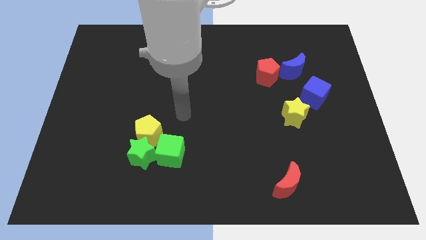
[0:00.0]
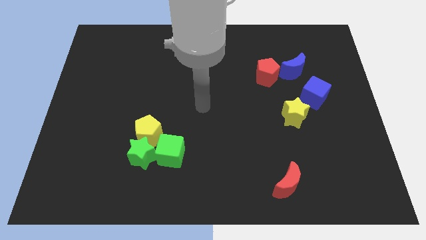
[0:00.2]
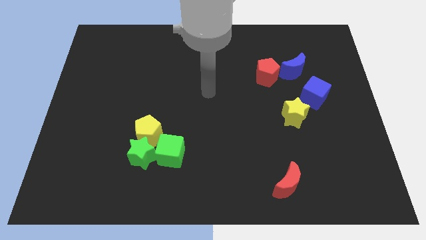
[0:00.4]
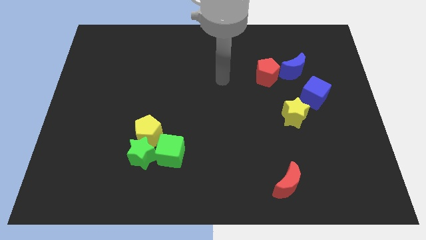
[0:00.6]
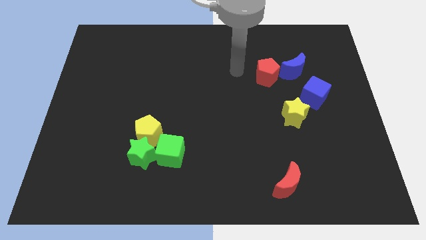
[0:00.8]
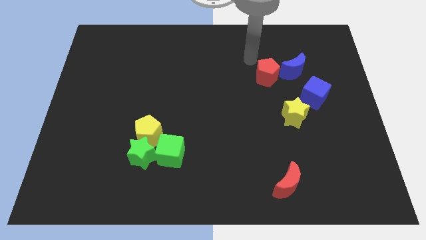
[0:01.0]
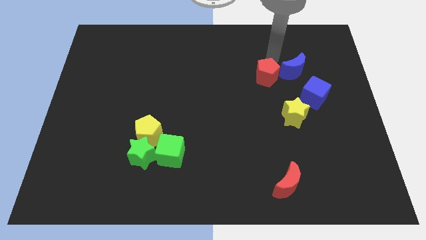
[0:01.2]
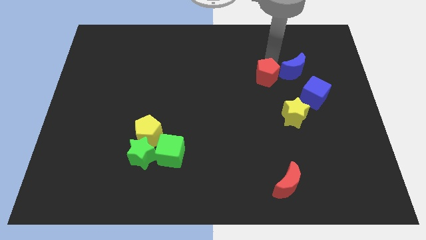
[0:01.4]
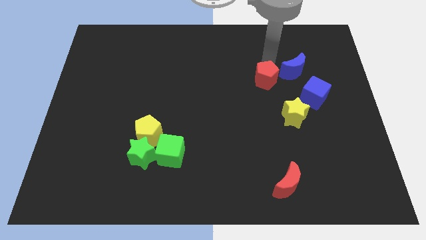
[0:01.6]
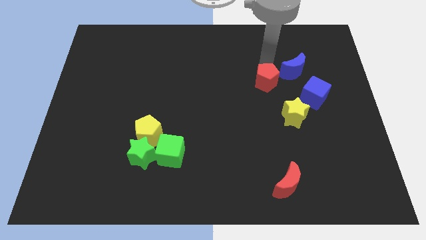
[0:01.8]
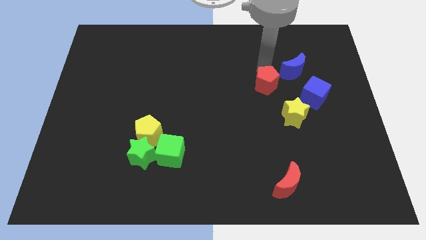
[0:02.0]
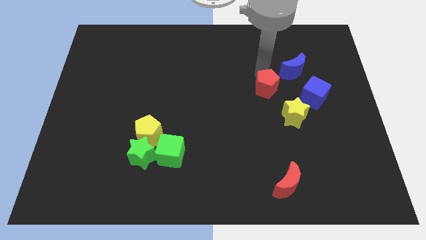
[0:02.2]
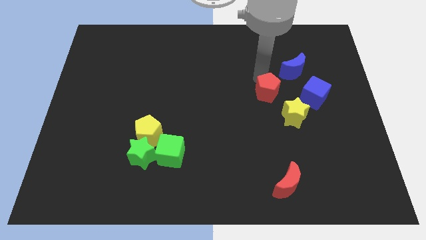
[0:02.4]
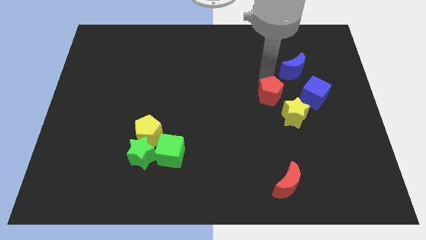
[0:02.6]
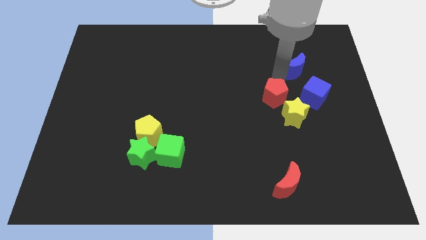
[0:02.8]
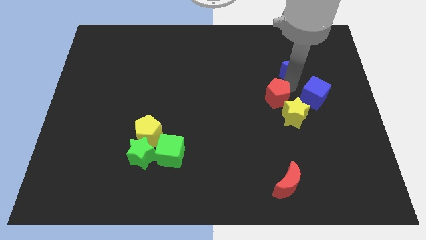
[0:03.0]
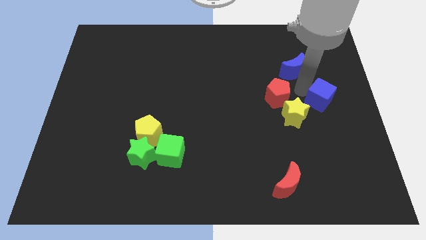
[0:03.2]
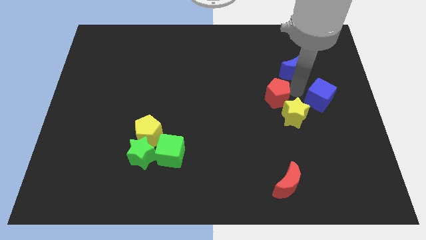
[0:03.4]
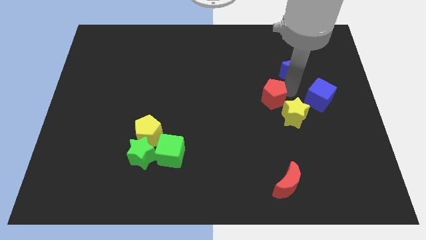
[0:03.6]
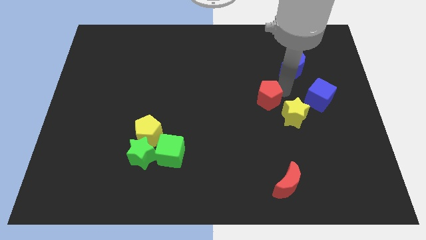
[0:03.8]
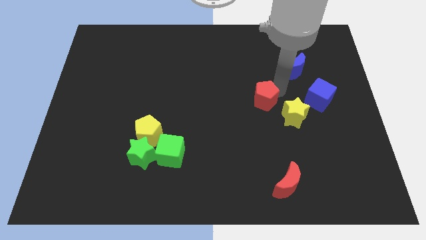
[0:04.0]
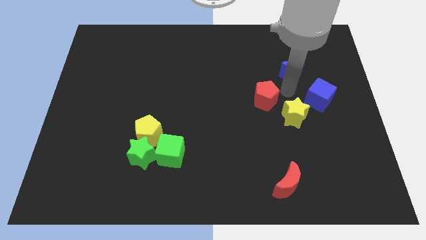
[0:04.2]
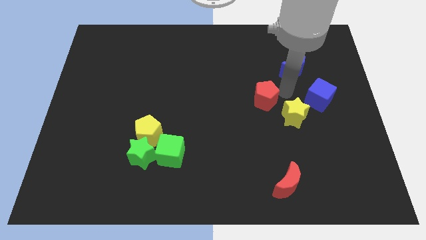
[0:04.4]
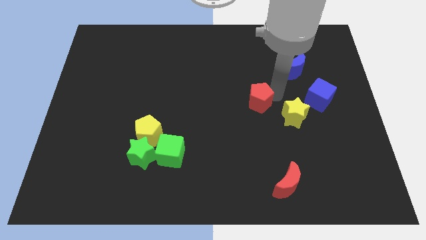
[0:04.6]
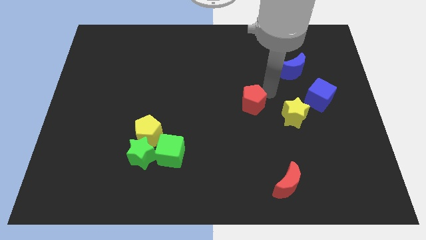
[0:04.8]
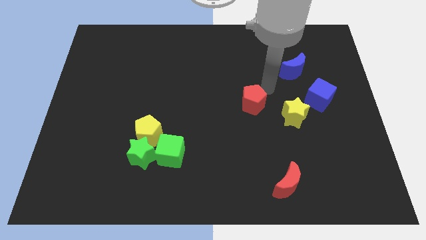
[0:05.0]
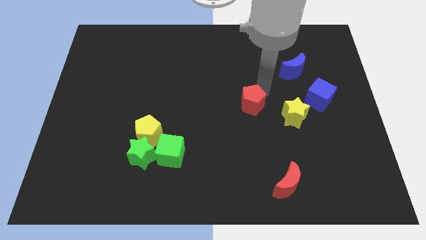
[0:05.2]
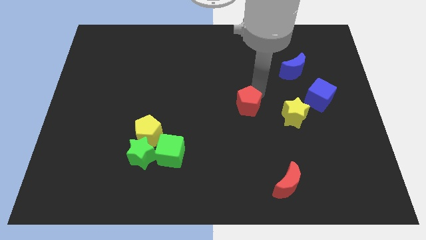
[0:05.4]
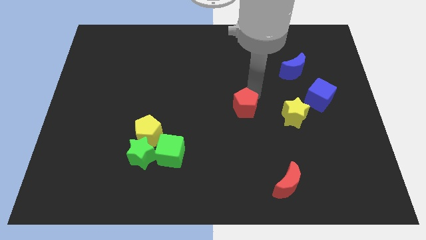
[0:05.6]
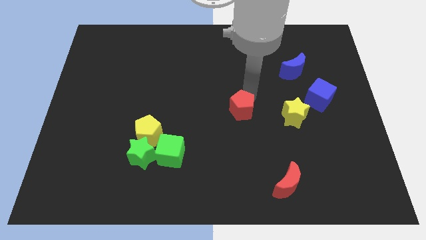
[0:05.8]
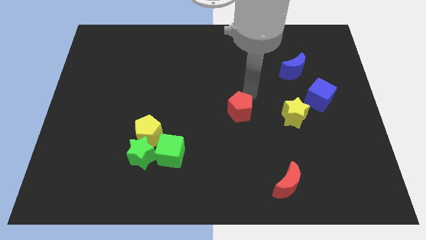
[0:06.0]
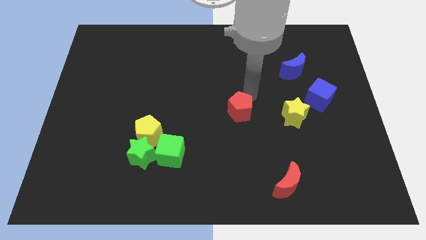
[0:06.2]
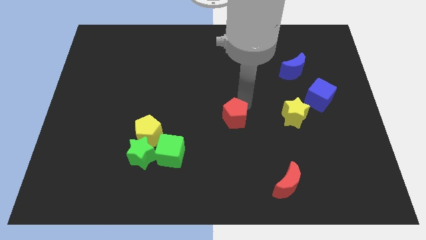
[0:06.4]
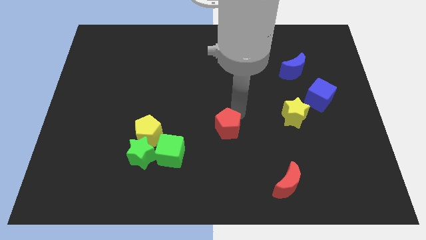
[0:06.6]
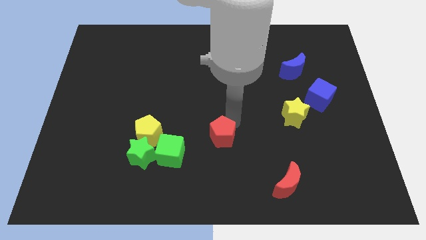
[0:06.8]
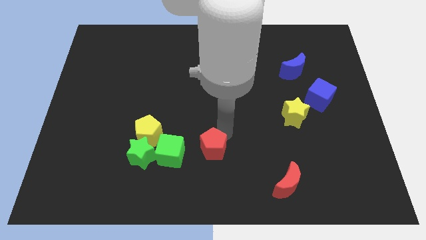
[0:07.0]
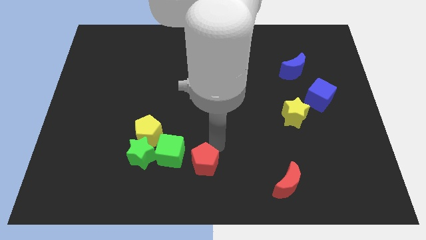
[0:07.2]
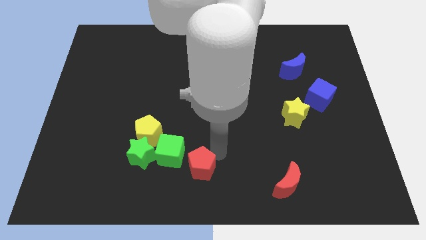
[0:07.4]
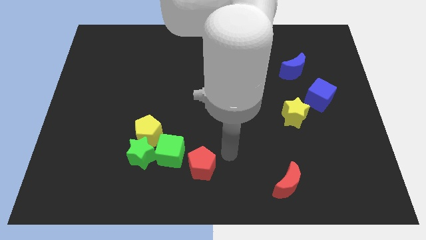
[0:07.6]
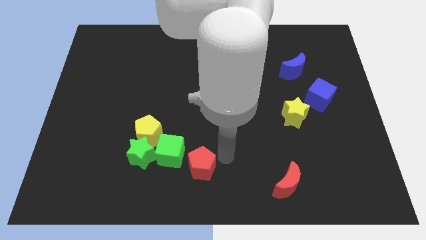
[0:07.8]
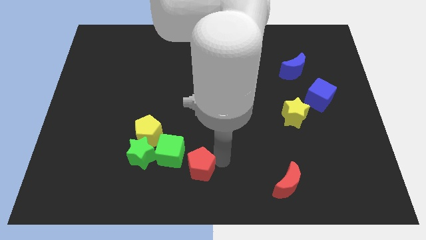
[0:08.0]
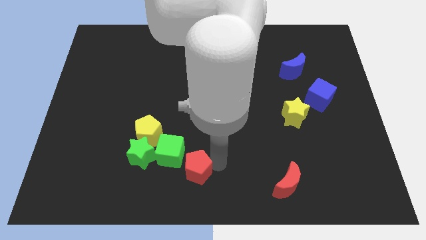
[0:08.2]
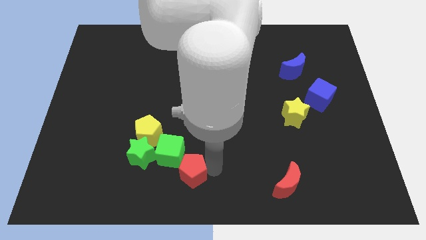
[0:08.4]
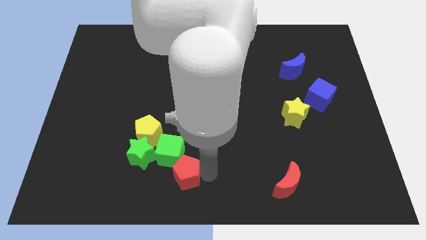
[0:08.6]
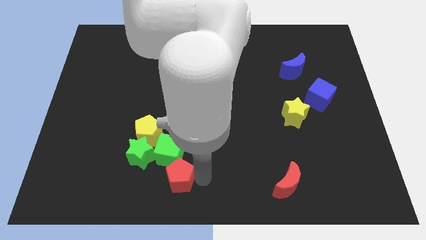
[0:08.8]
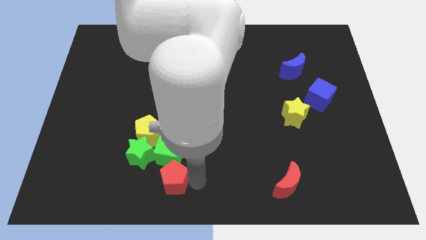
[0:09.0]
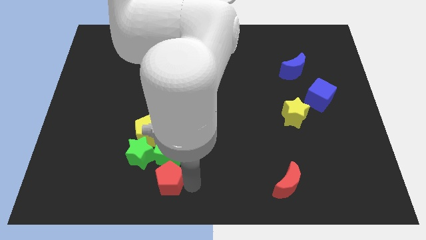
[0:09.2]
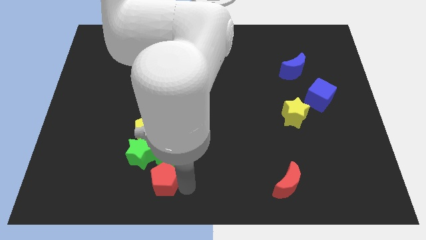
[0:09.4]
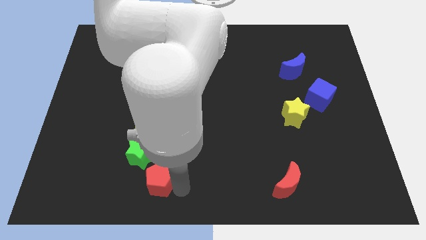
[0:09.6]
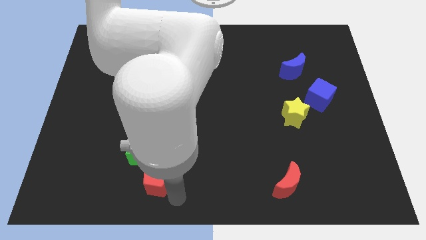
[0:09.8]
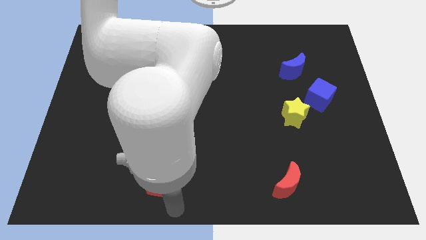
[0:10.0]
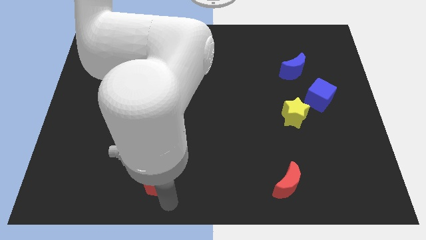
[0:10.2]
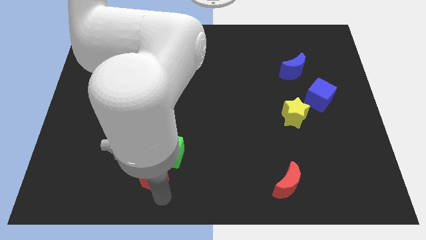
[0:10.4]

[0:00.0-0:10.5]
move the red pentagon towards the green star
